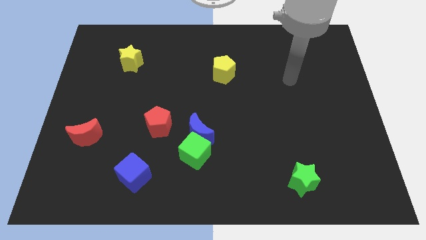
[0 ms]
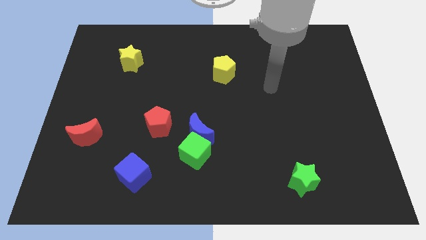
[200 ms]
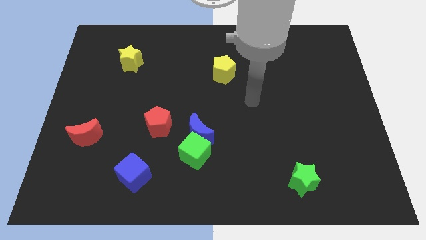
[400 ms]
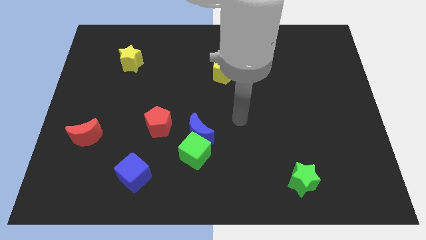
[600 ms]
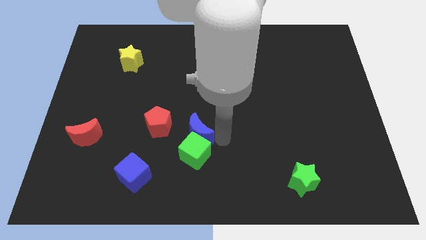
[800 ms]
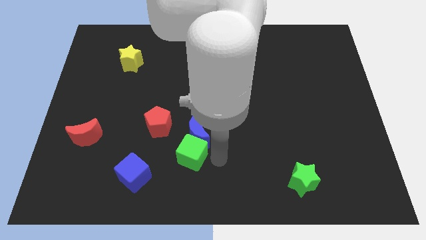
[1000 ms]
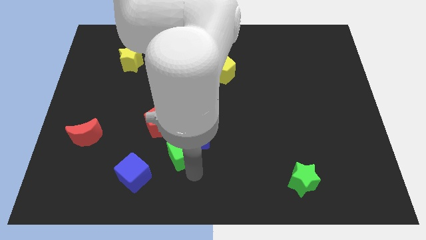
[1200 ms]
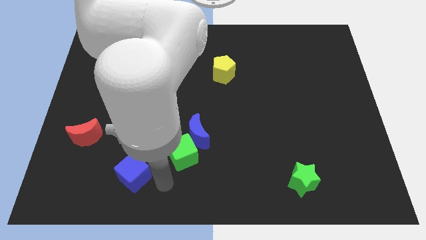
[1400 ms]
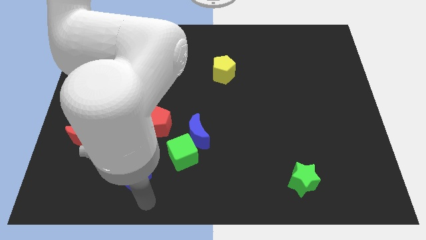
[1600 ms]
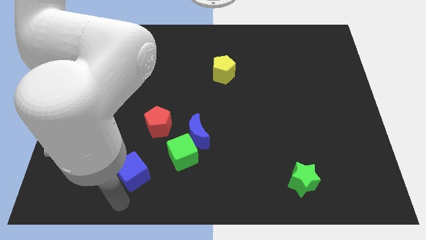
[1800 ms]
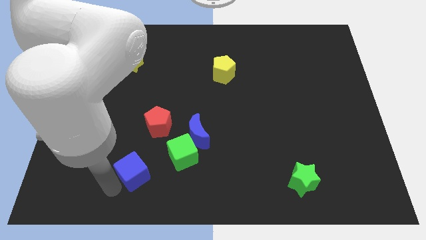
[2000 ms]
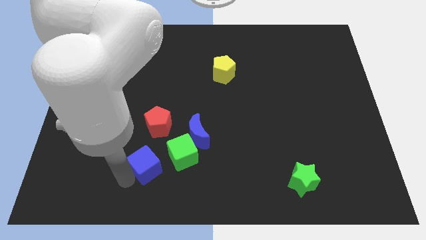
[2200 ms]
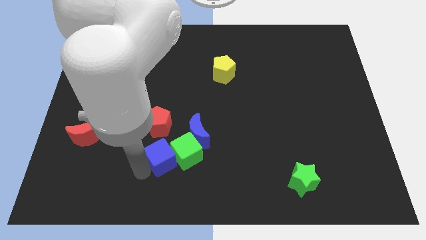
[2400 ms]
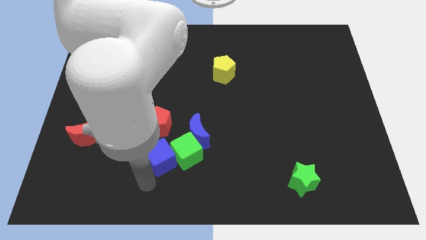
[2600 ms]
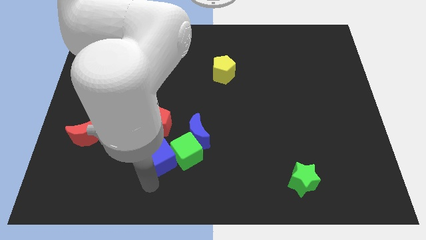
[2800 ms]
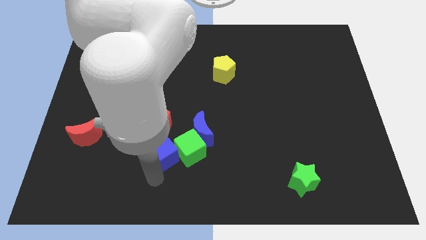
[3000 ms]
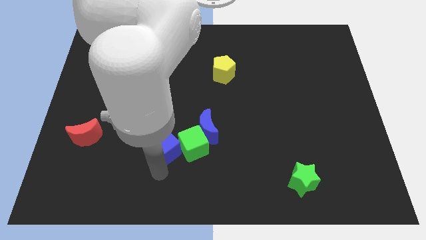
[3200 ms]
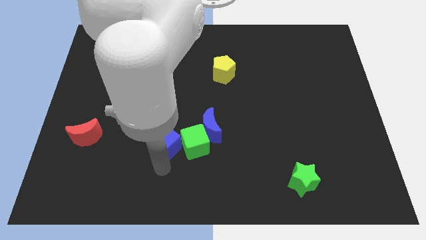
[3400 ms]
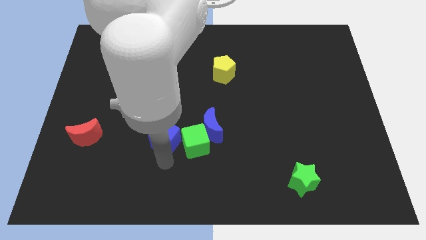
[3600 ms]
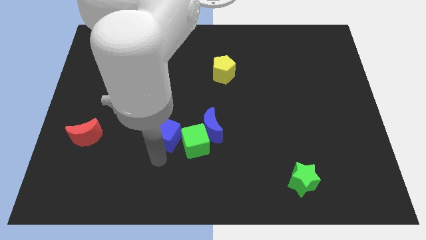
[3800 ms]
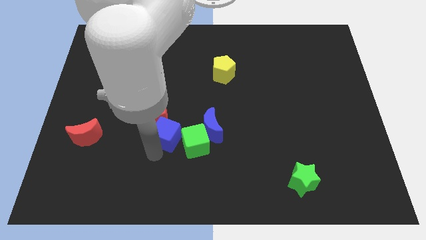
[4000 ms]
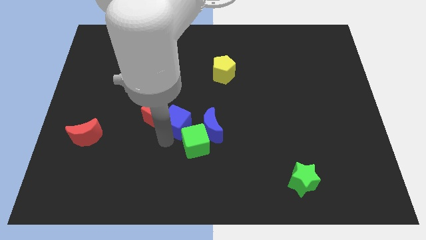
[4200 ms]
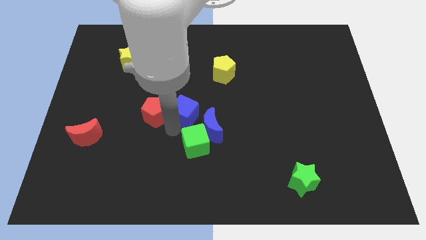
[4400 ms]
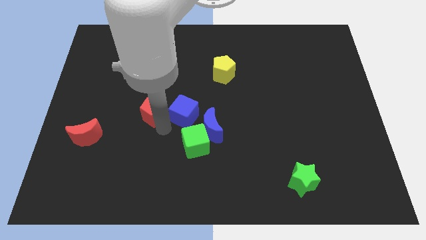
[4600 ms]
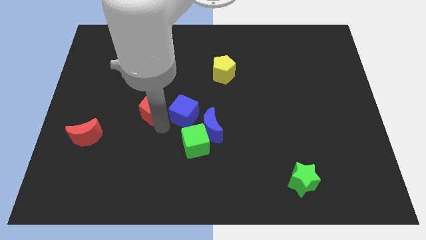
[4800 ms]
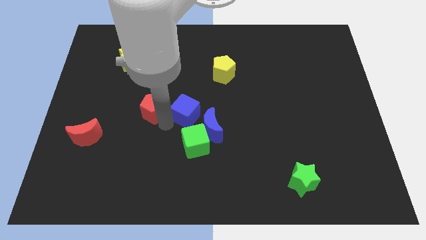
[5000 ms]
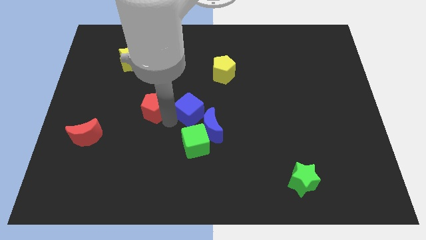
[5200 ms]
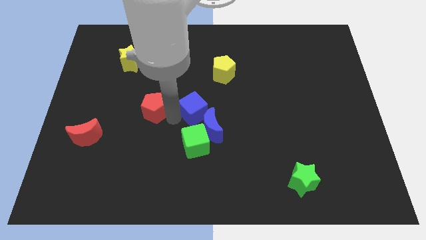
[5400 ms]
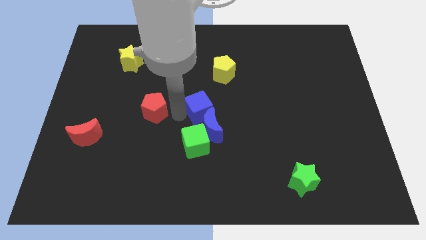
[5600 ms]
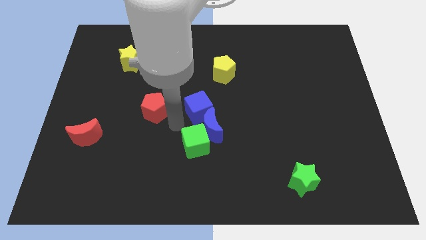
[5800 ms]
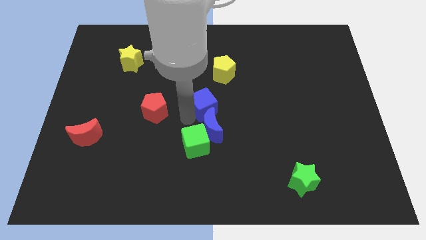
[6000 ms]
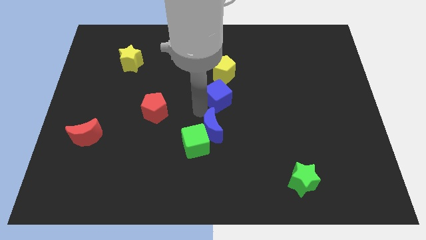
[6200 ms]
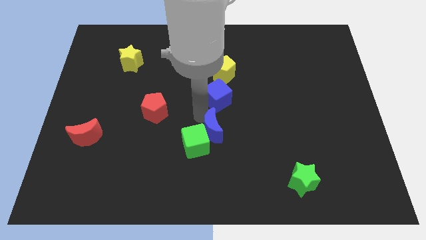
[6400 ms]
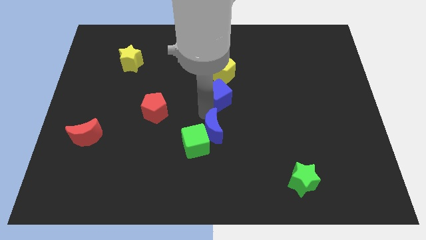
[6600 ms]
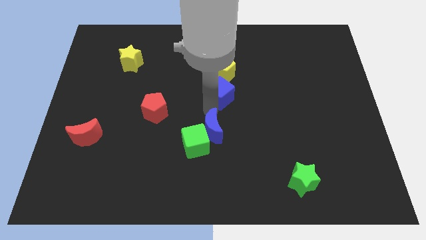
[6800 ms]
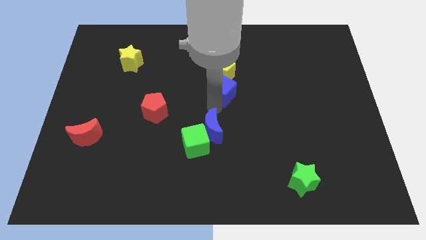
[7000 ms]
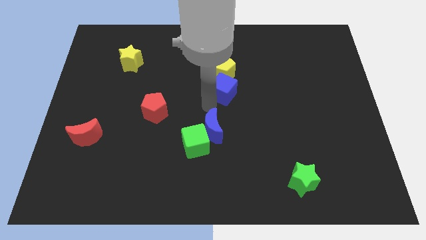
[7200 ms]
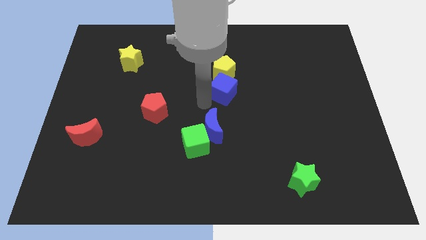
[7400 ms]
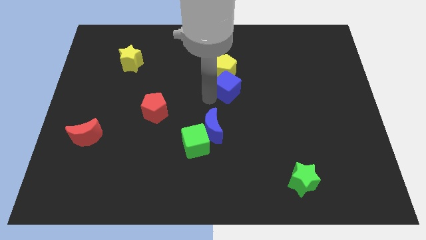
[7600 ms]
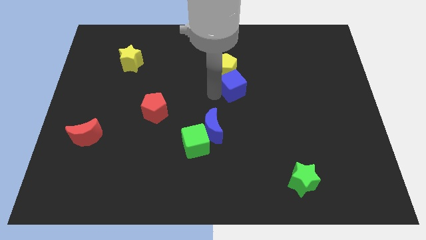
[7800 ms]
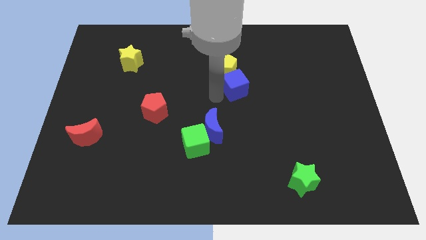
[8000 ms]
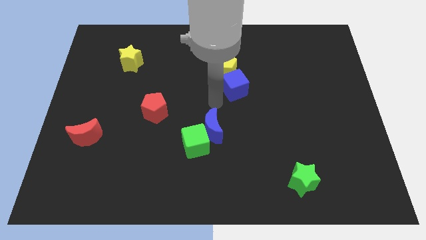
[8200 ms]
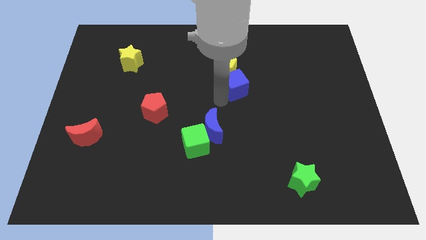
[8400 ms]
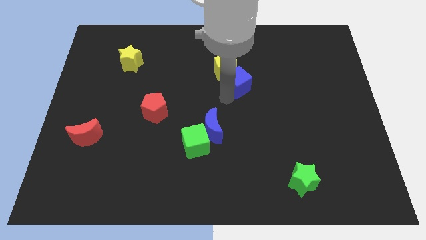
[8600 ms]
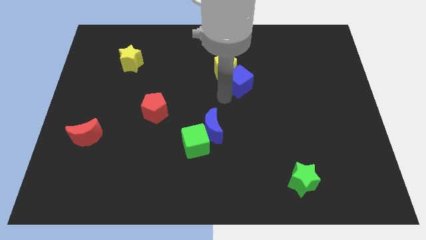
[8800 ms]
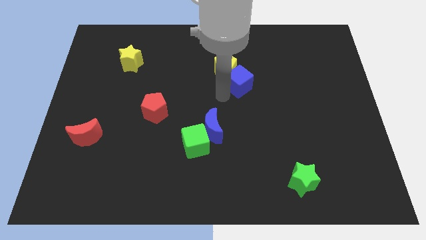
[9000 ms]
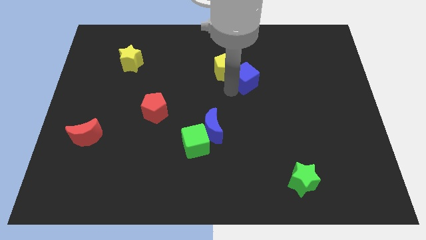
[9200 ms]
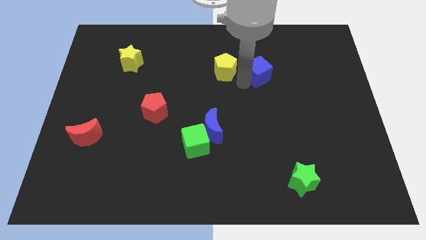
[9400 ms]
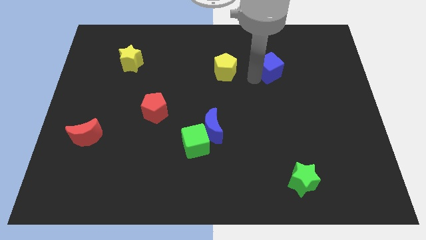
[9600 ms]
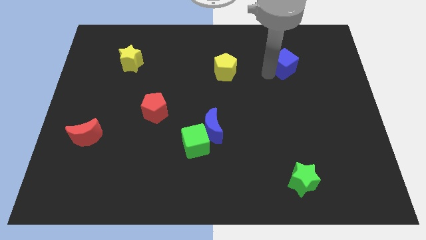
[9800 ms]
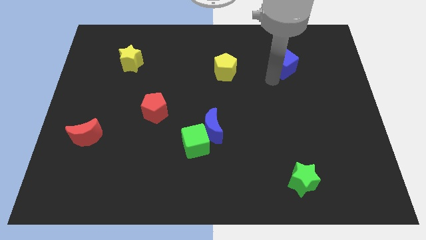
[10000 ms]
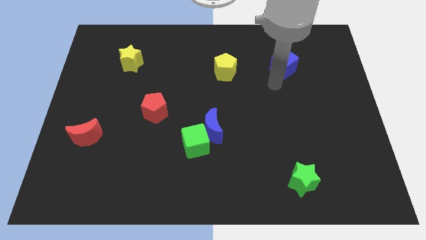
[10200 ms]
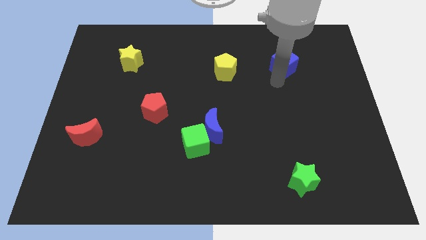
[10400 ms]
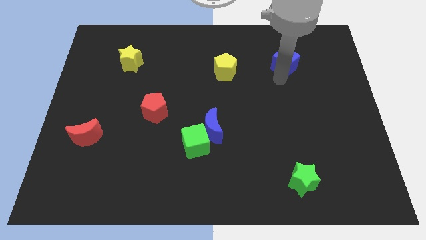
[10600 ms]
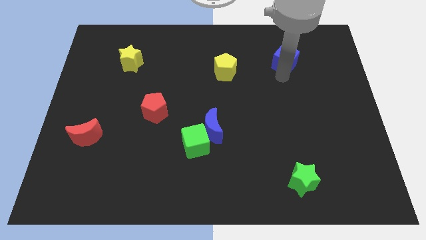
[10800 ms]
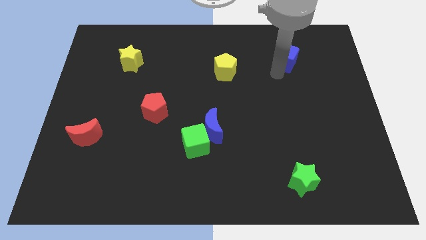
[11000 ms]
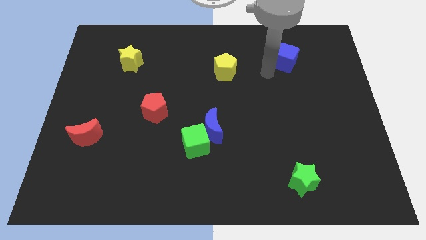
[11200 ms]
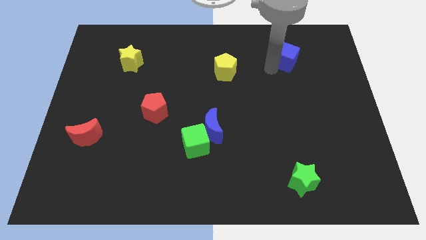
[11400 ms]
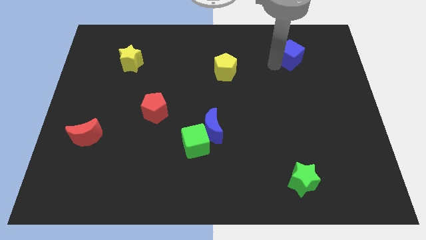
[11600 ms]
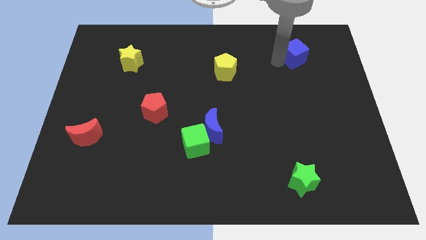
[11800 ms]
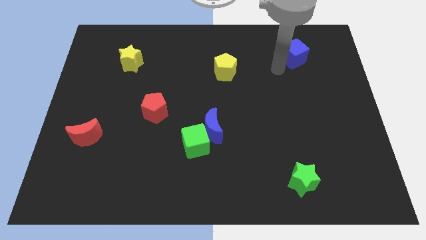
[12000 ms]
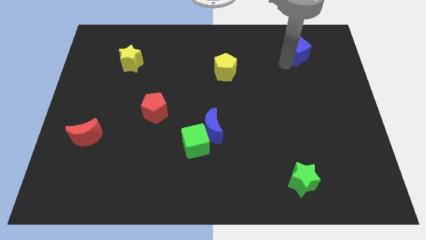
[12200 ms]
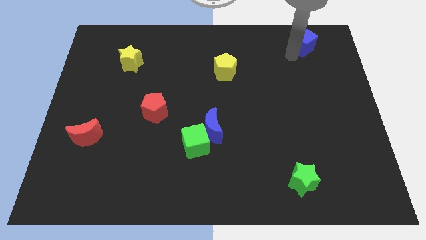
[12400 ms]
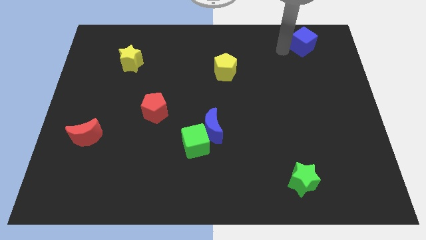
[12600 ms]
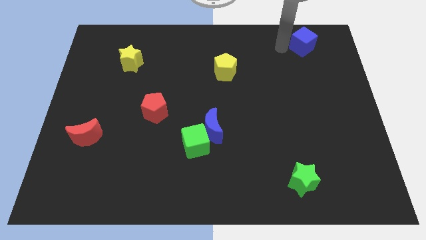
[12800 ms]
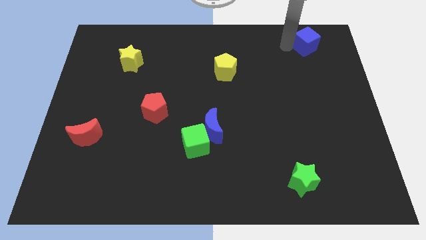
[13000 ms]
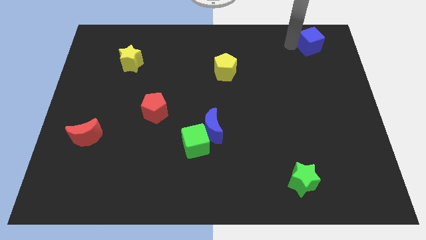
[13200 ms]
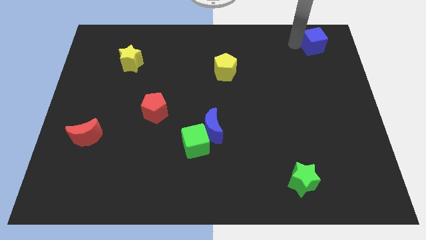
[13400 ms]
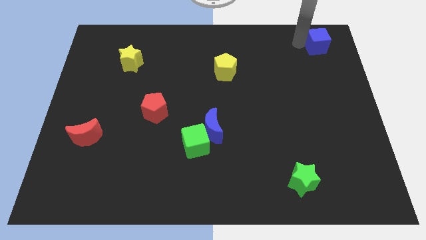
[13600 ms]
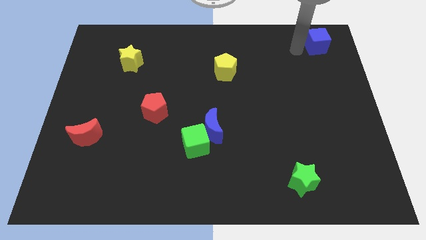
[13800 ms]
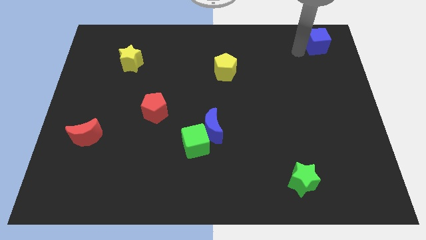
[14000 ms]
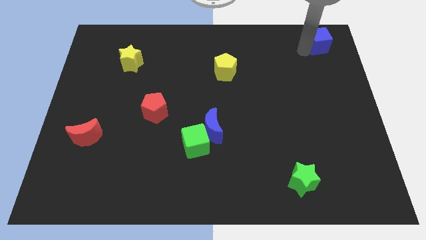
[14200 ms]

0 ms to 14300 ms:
push the blue cube to the top right of the board
